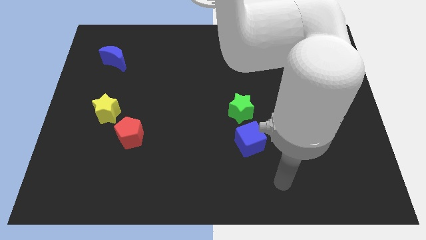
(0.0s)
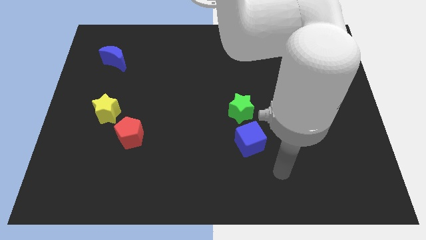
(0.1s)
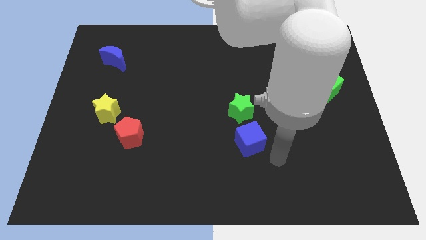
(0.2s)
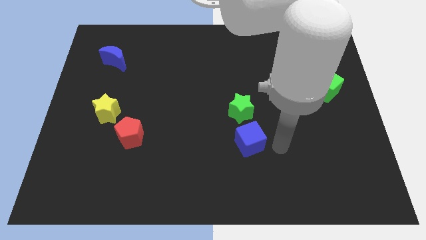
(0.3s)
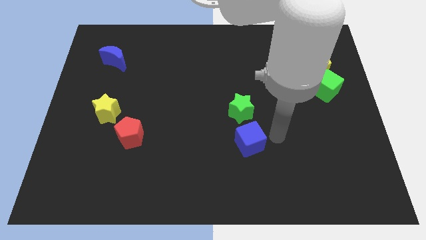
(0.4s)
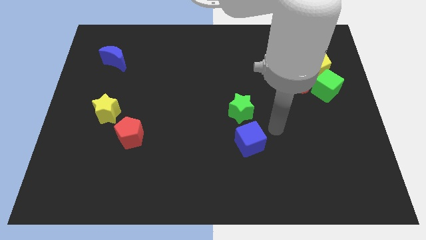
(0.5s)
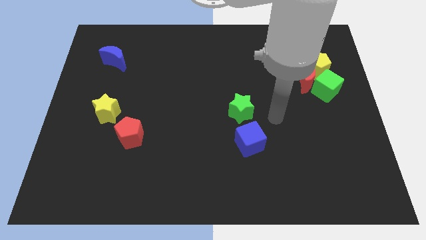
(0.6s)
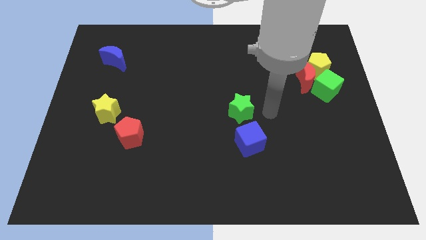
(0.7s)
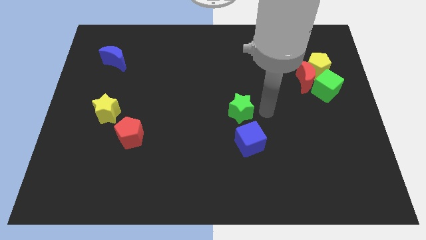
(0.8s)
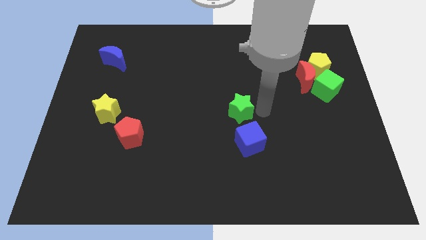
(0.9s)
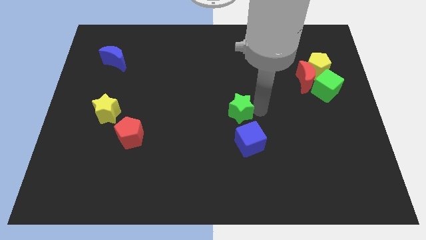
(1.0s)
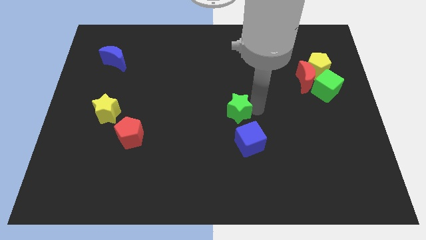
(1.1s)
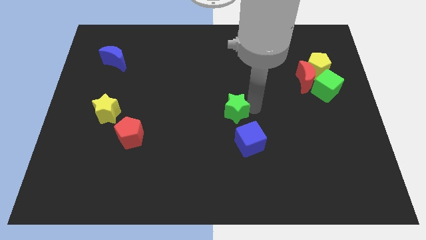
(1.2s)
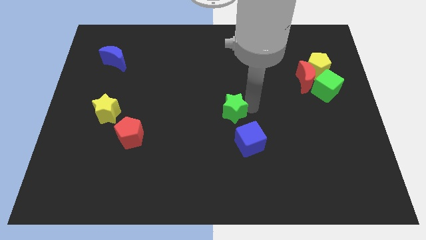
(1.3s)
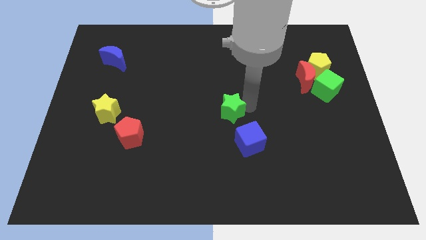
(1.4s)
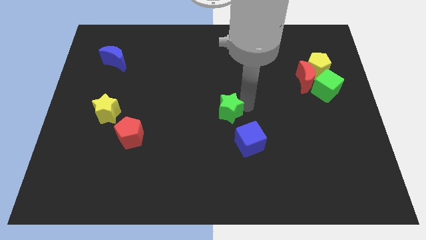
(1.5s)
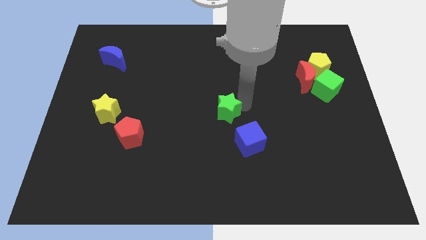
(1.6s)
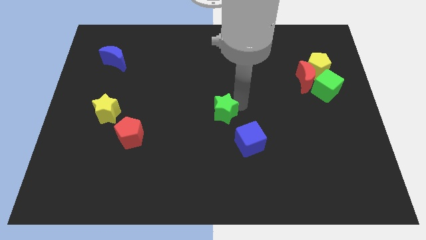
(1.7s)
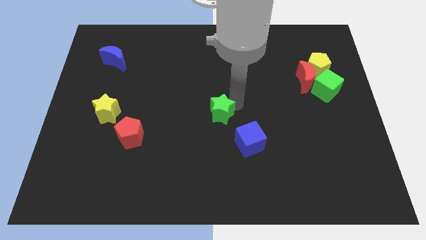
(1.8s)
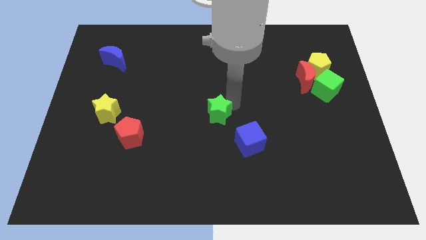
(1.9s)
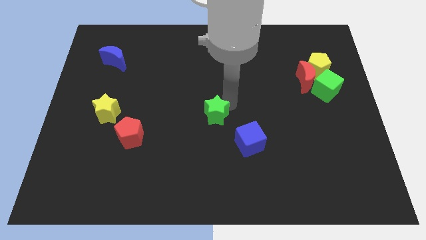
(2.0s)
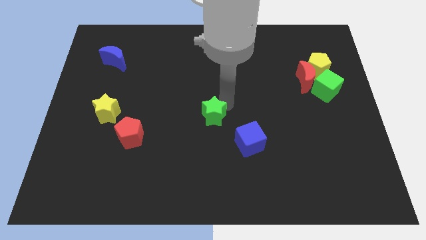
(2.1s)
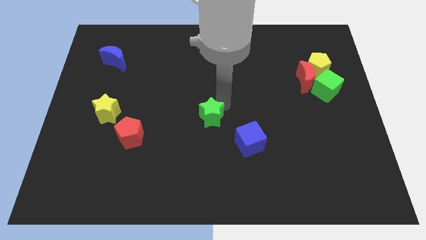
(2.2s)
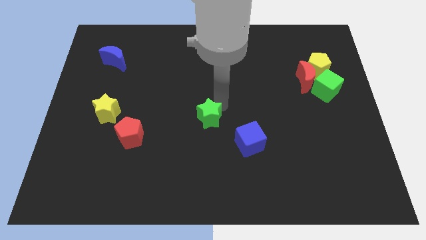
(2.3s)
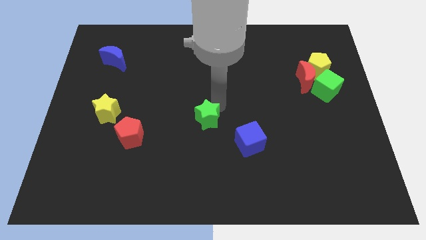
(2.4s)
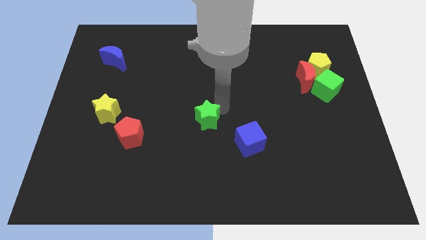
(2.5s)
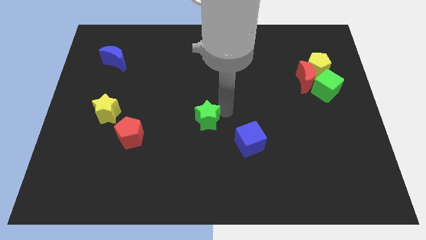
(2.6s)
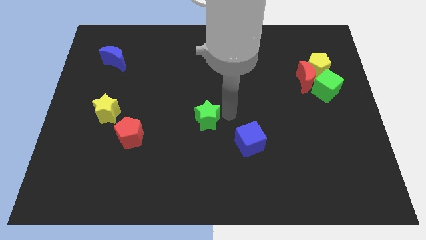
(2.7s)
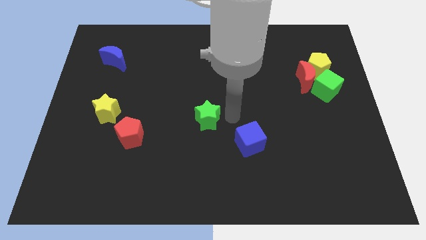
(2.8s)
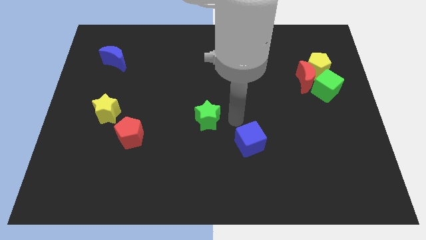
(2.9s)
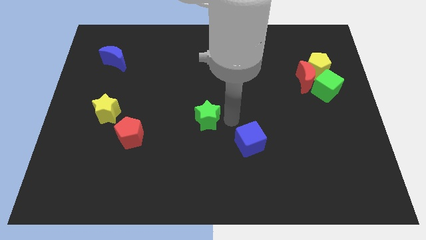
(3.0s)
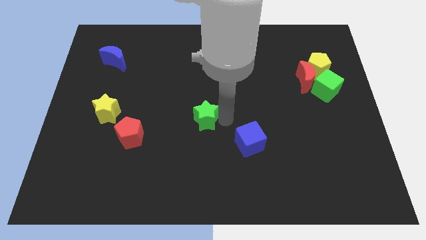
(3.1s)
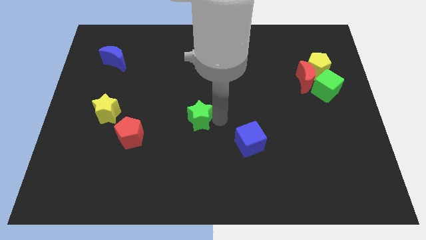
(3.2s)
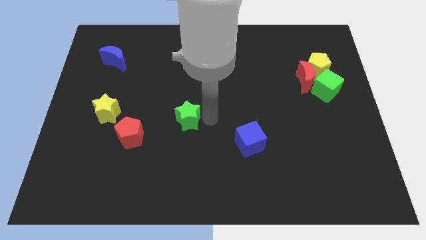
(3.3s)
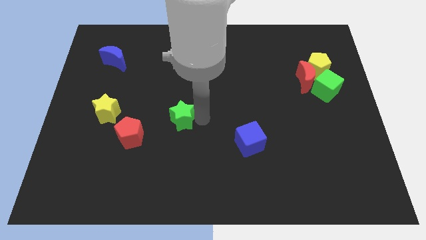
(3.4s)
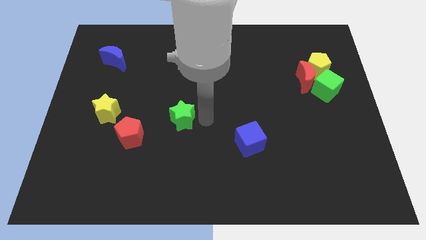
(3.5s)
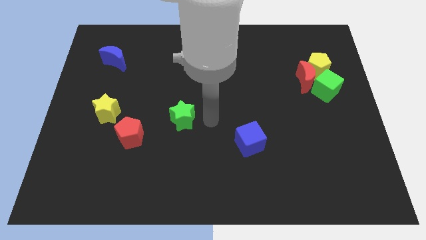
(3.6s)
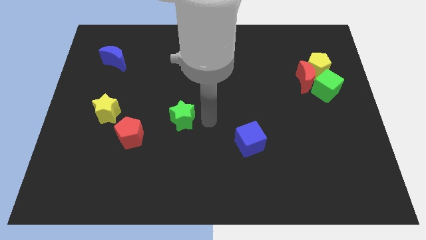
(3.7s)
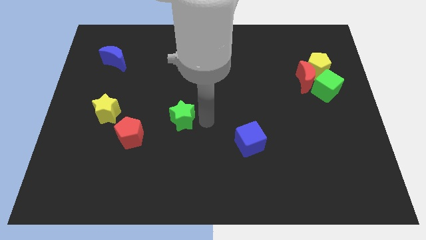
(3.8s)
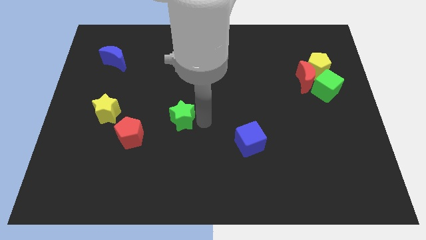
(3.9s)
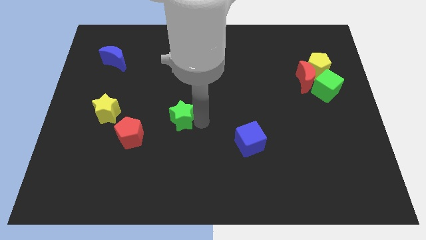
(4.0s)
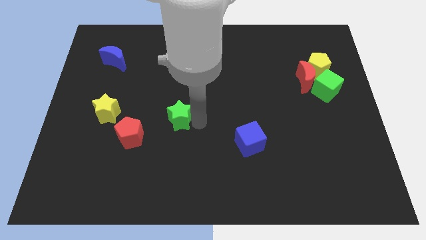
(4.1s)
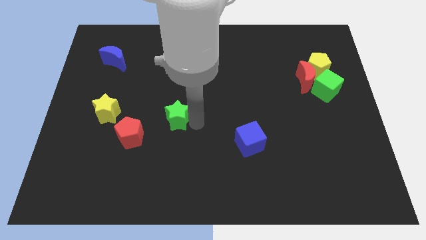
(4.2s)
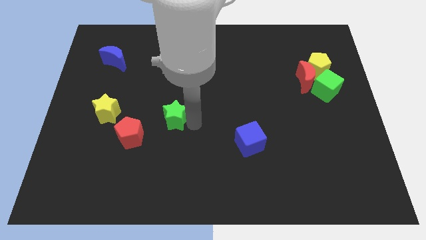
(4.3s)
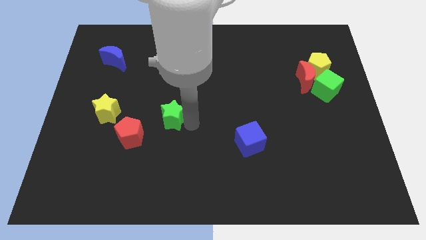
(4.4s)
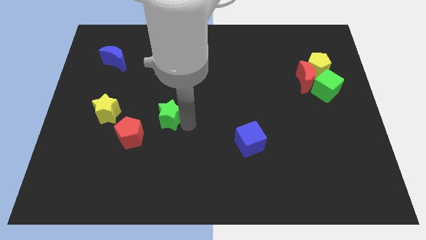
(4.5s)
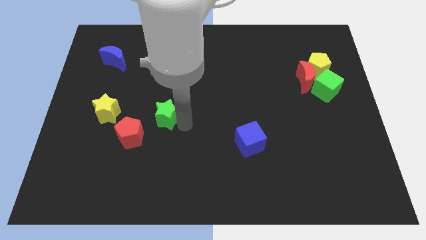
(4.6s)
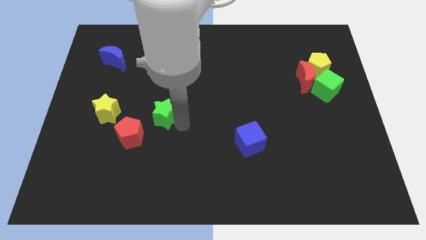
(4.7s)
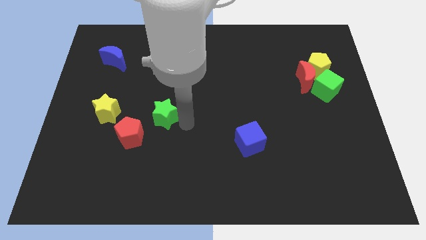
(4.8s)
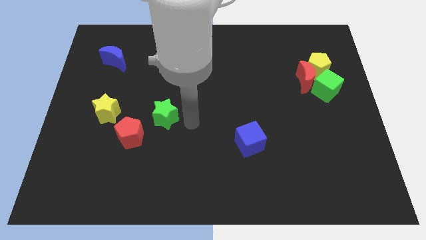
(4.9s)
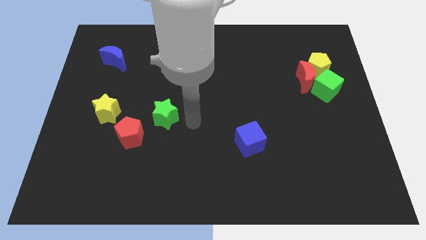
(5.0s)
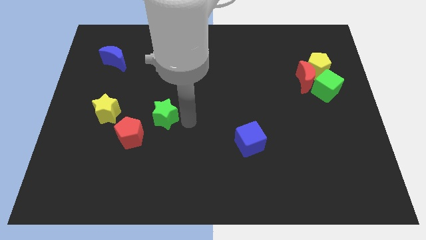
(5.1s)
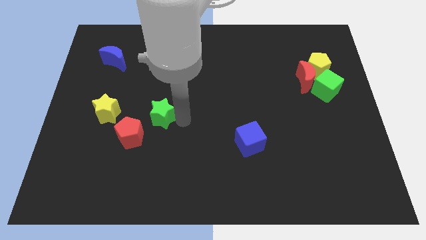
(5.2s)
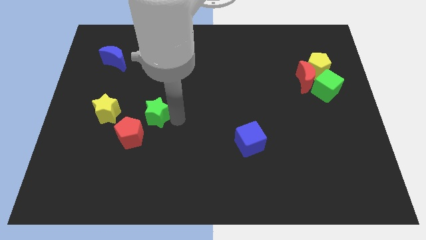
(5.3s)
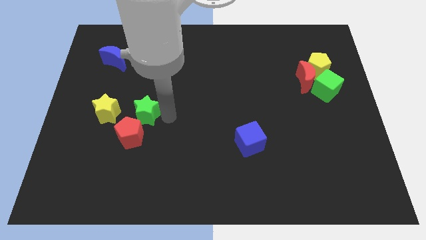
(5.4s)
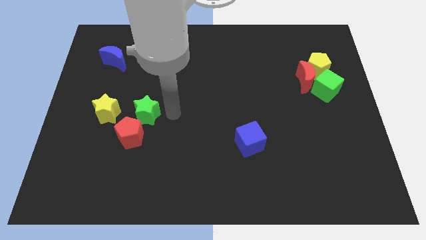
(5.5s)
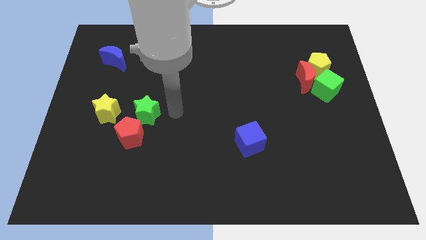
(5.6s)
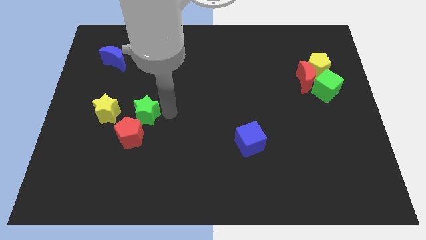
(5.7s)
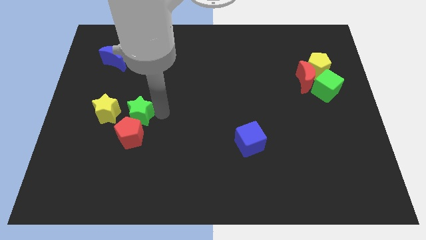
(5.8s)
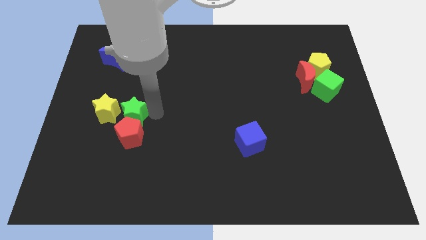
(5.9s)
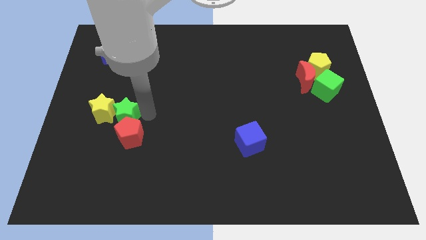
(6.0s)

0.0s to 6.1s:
move the green star towards the yellow star

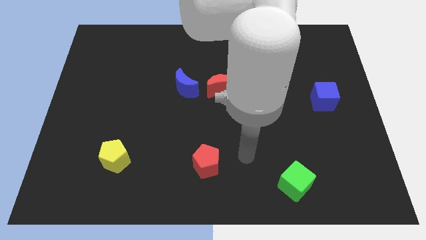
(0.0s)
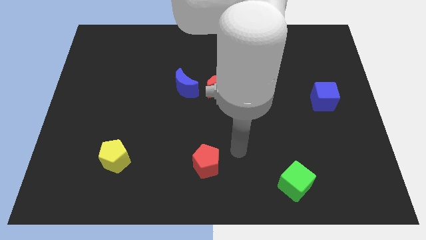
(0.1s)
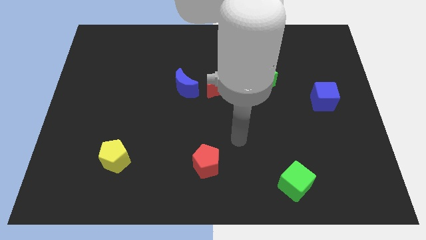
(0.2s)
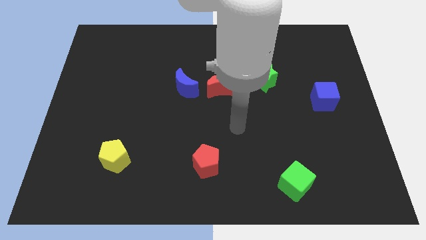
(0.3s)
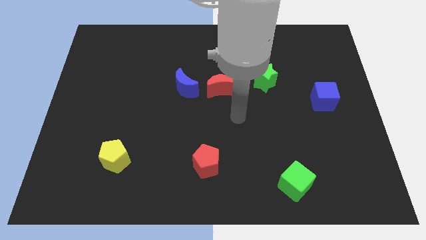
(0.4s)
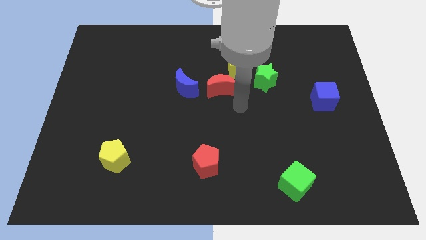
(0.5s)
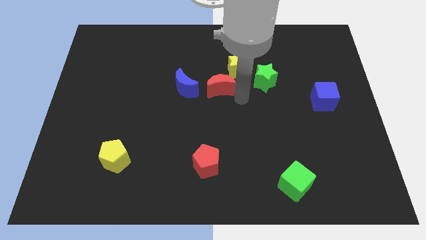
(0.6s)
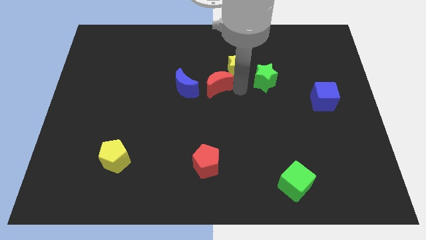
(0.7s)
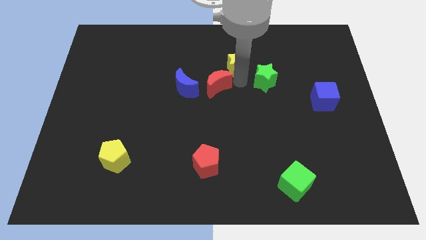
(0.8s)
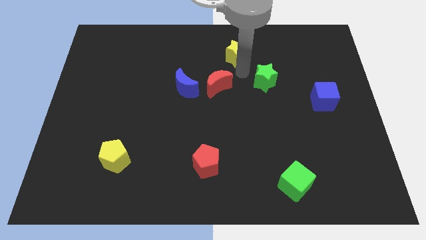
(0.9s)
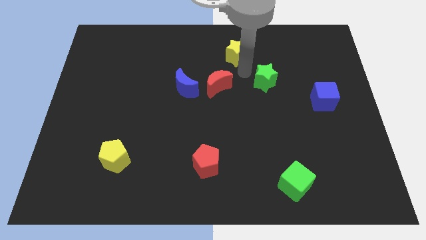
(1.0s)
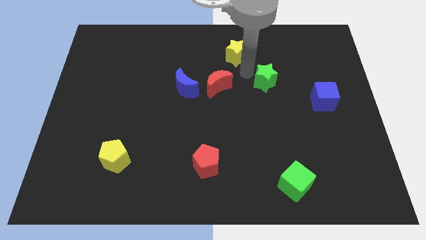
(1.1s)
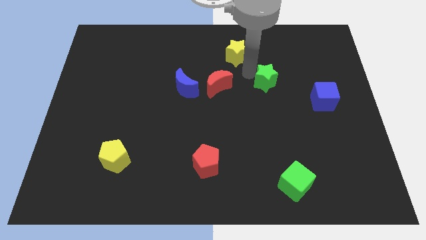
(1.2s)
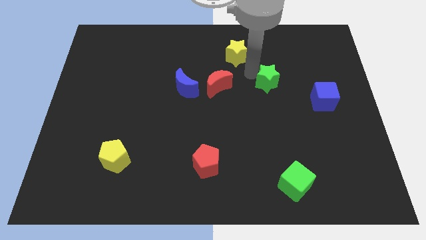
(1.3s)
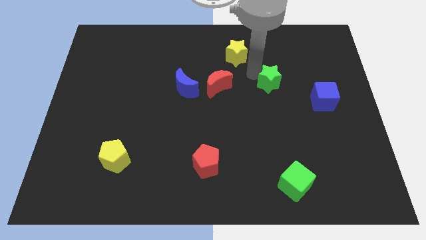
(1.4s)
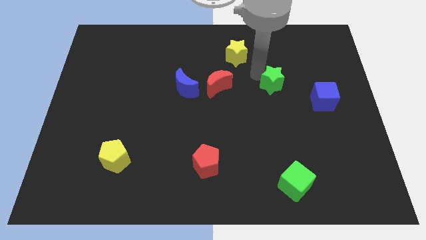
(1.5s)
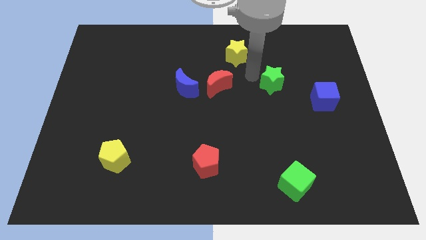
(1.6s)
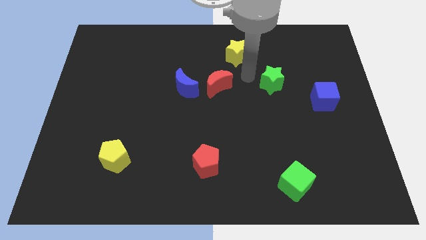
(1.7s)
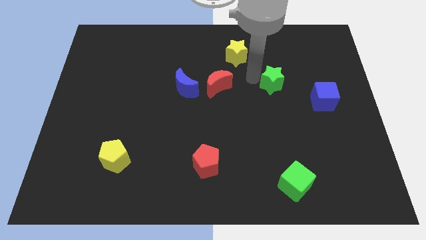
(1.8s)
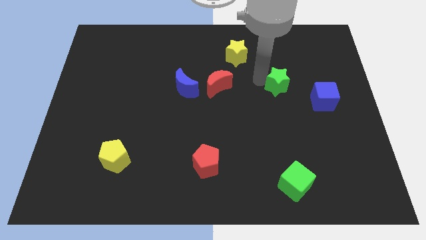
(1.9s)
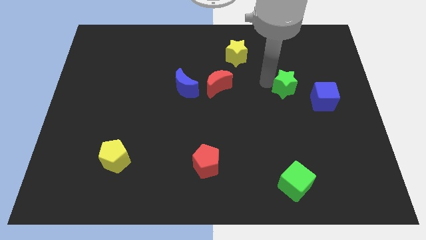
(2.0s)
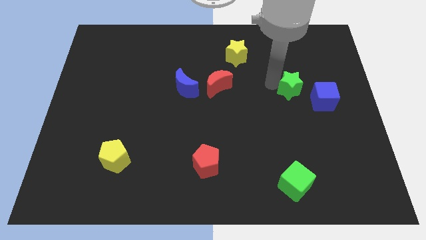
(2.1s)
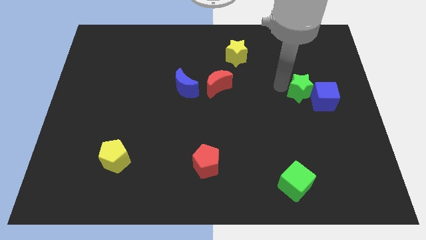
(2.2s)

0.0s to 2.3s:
put the green star towards the blue cube
